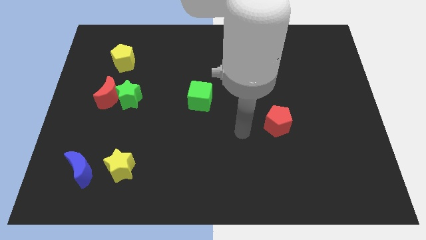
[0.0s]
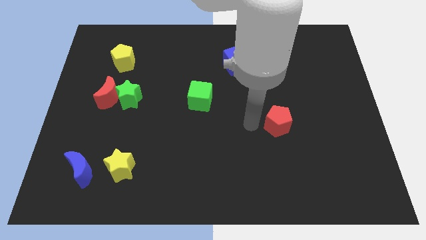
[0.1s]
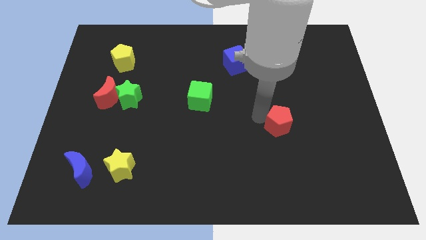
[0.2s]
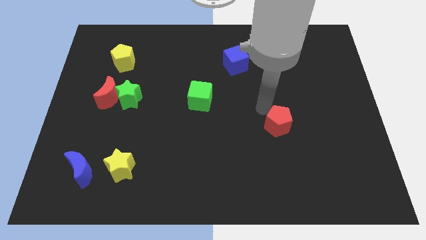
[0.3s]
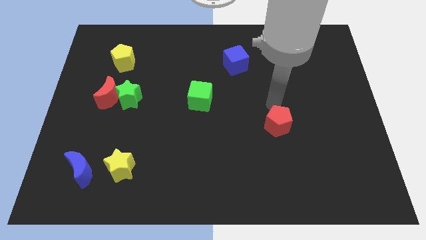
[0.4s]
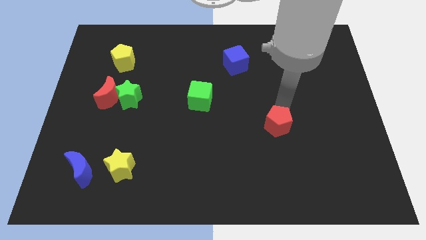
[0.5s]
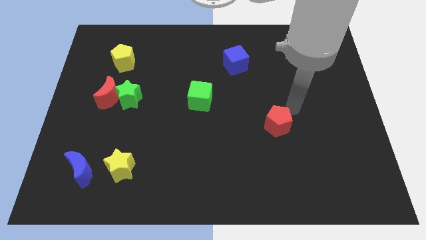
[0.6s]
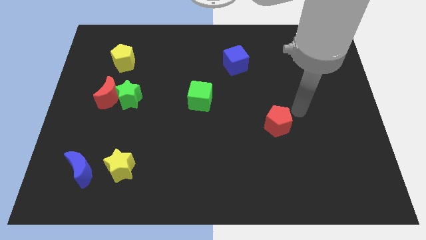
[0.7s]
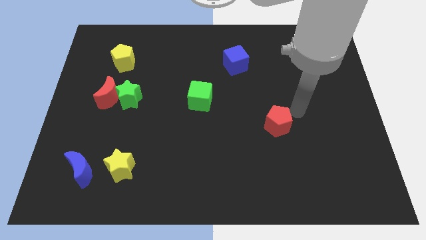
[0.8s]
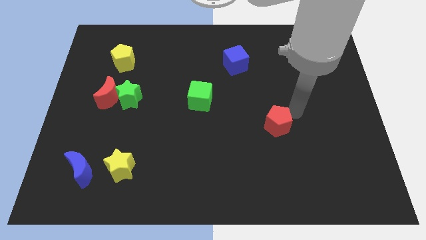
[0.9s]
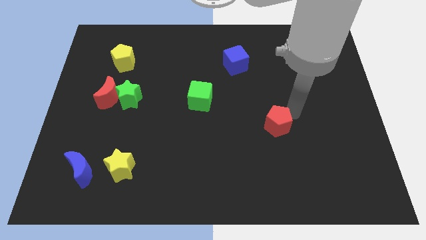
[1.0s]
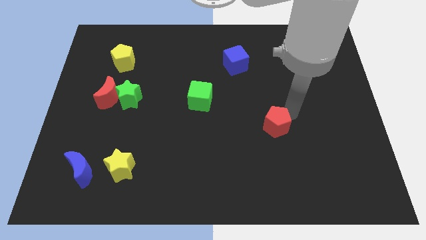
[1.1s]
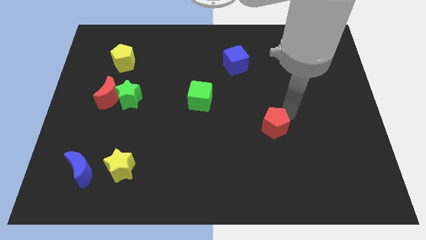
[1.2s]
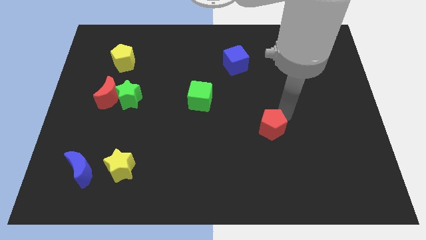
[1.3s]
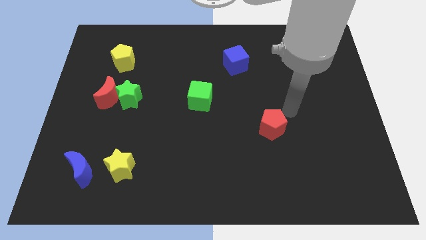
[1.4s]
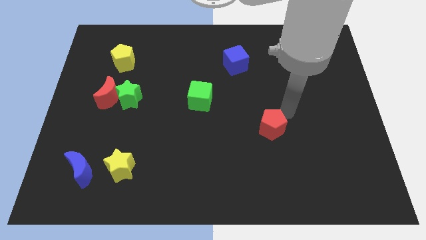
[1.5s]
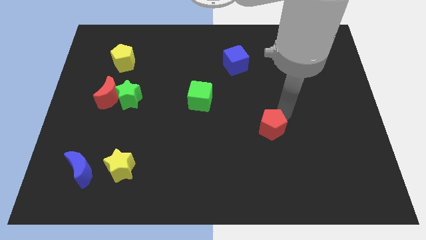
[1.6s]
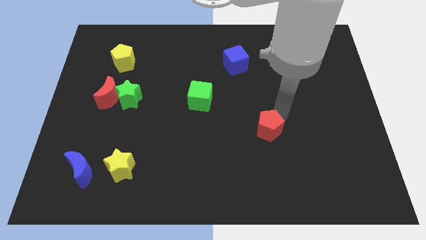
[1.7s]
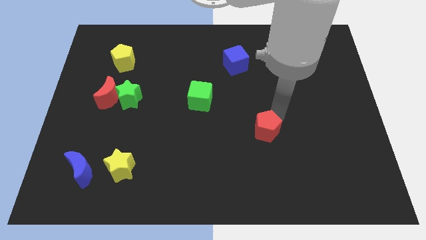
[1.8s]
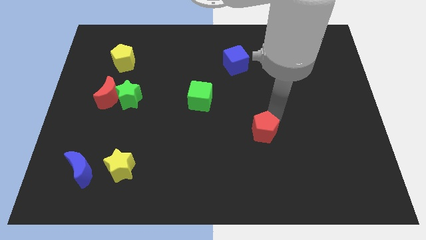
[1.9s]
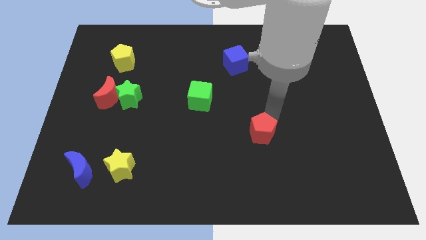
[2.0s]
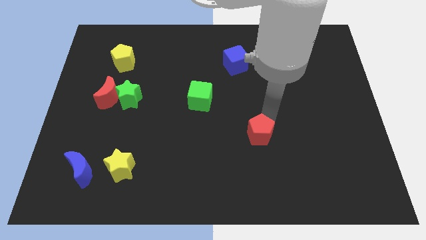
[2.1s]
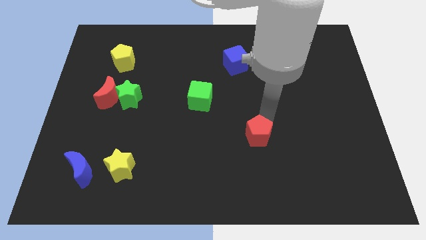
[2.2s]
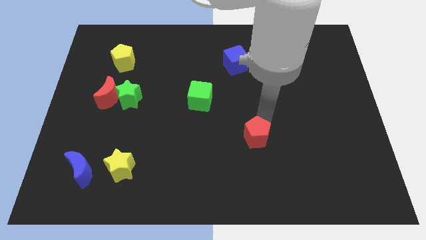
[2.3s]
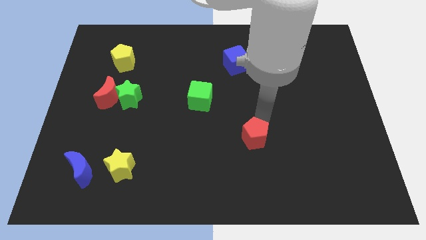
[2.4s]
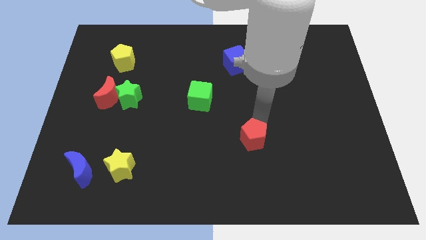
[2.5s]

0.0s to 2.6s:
push the red pentagon down and left diagonally slightly

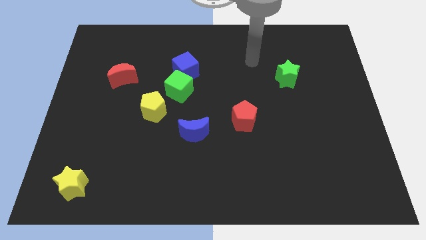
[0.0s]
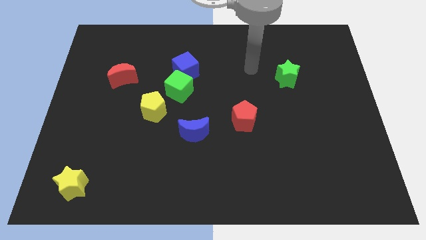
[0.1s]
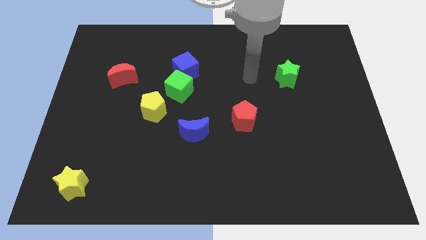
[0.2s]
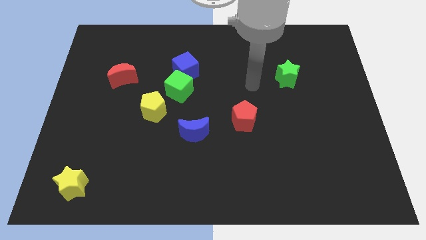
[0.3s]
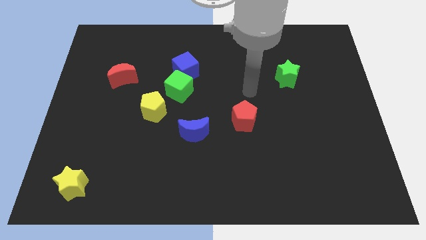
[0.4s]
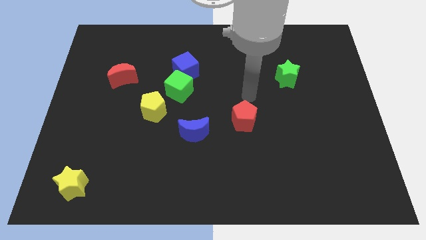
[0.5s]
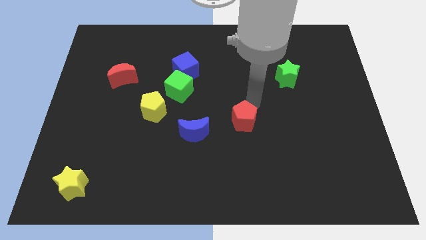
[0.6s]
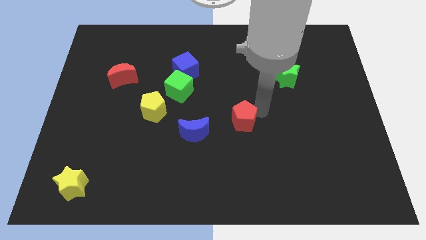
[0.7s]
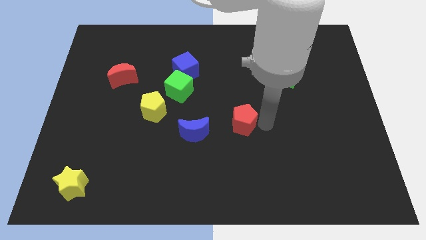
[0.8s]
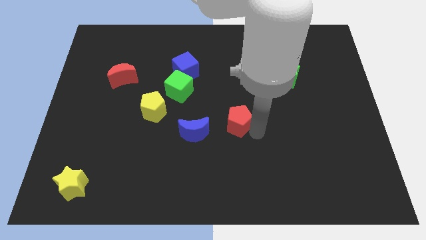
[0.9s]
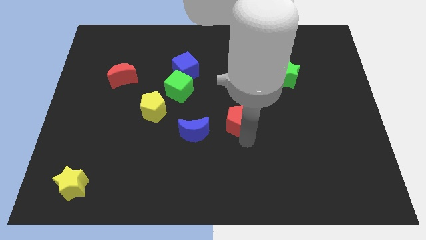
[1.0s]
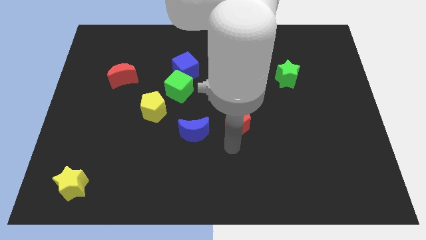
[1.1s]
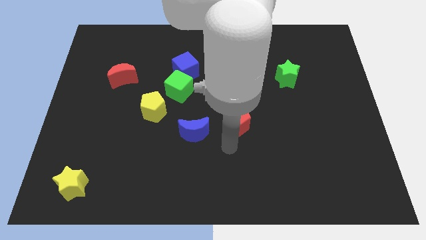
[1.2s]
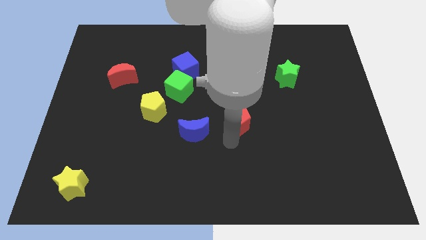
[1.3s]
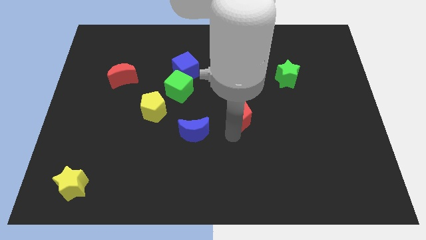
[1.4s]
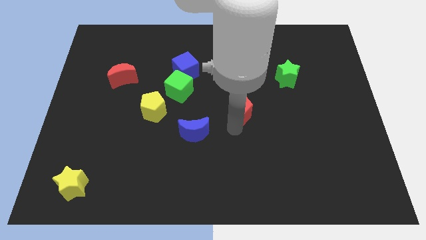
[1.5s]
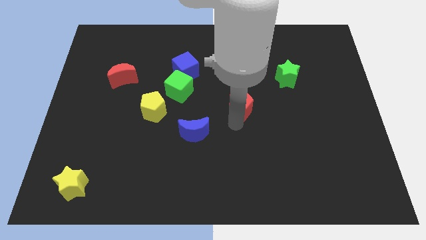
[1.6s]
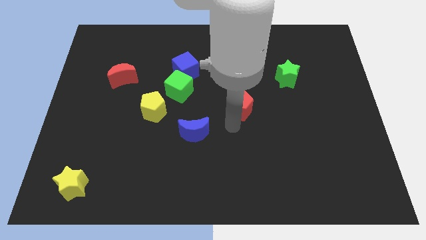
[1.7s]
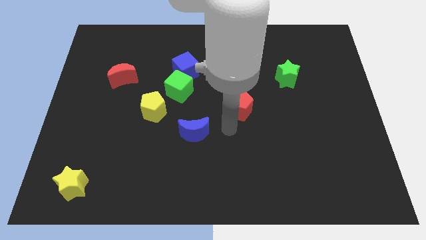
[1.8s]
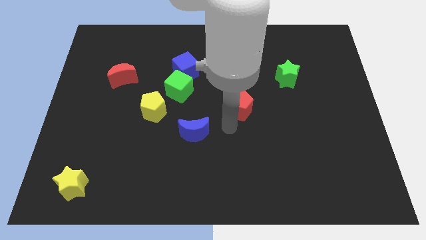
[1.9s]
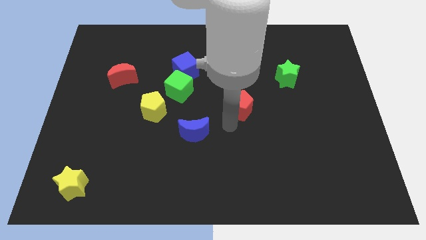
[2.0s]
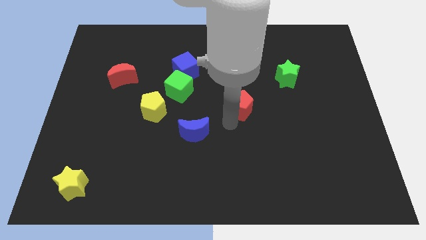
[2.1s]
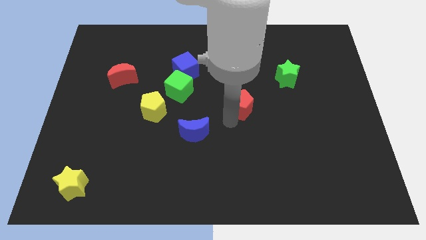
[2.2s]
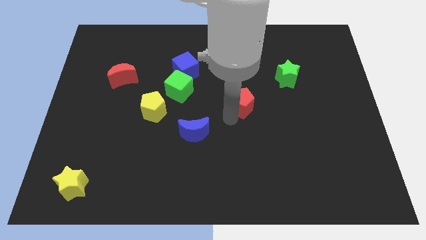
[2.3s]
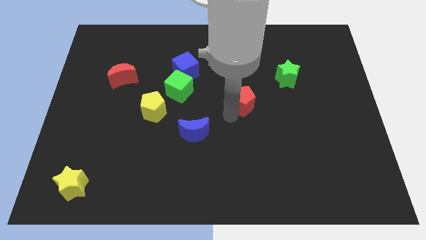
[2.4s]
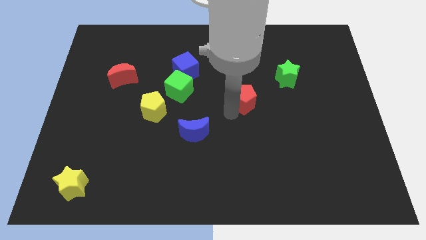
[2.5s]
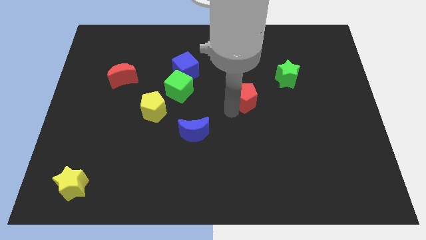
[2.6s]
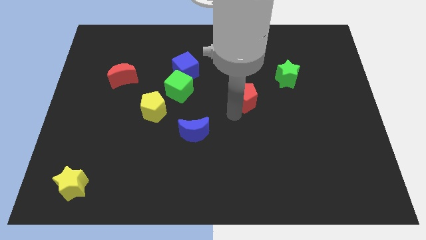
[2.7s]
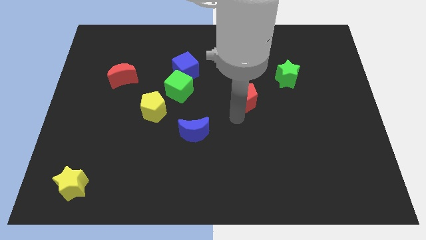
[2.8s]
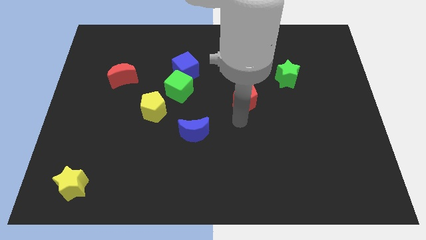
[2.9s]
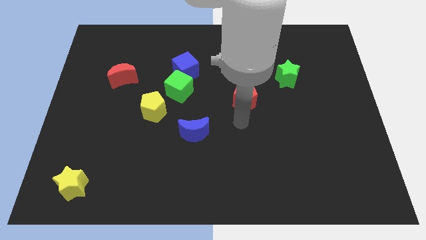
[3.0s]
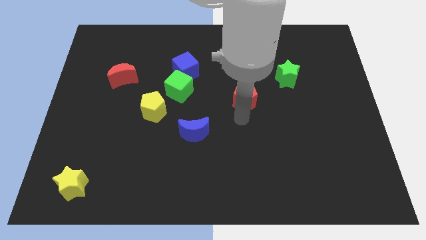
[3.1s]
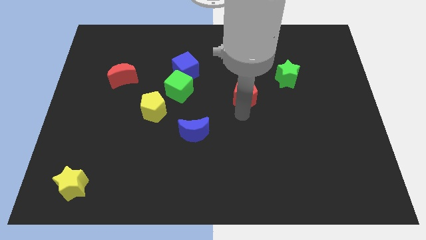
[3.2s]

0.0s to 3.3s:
slide the red pentagon up somewhat

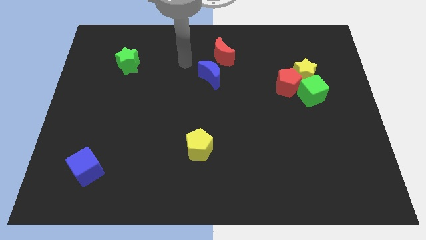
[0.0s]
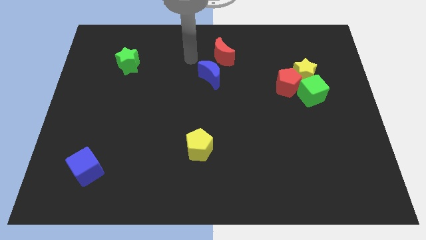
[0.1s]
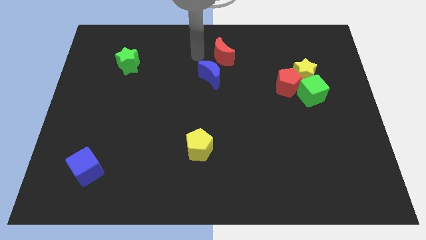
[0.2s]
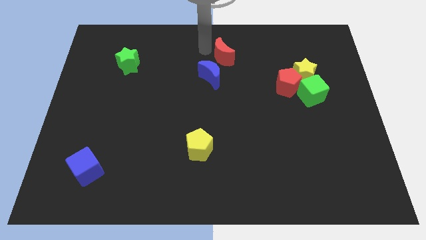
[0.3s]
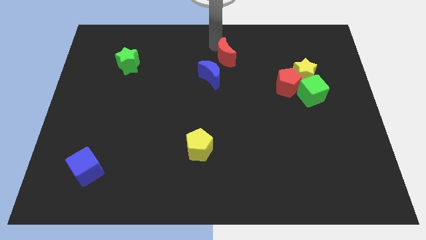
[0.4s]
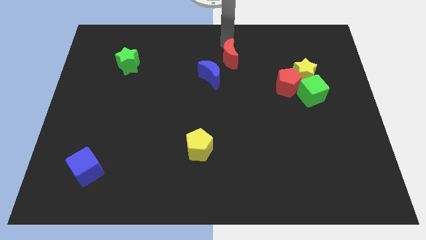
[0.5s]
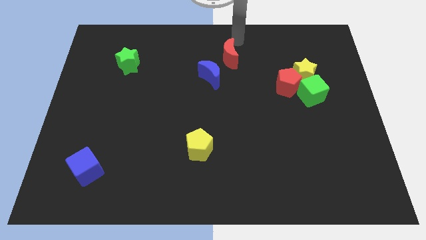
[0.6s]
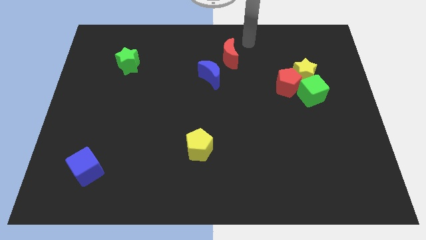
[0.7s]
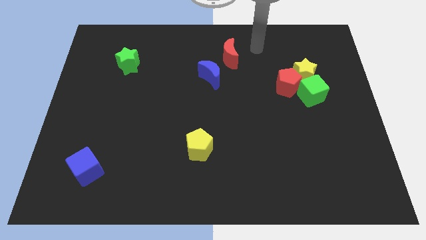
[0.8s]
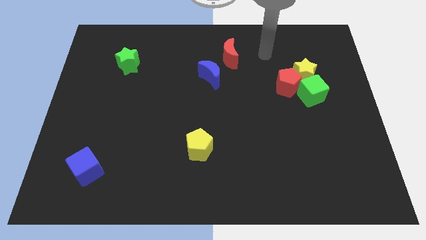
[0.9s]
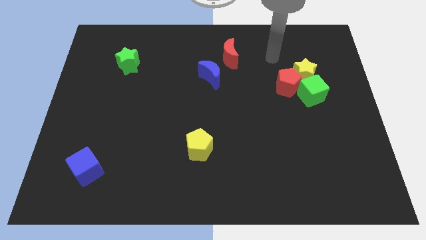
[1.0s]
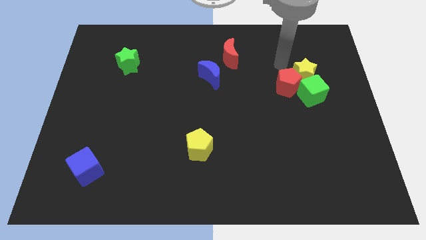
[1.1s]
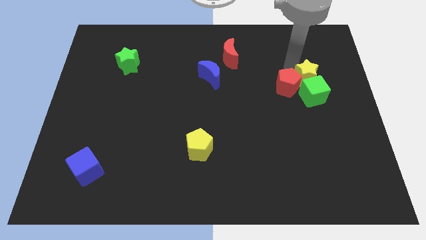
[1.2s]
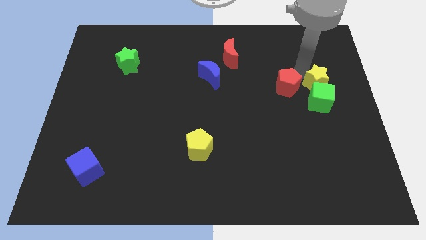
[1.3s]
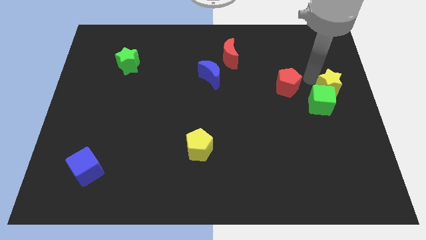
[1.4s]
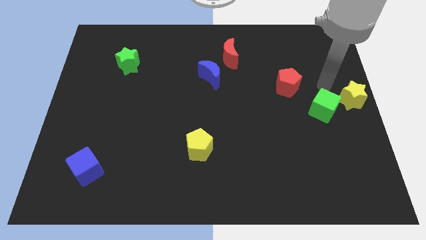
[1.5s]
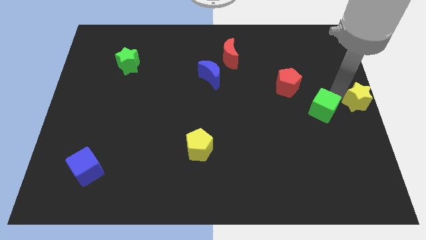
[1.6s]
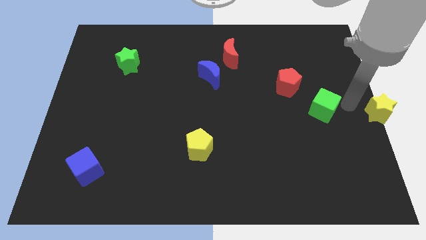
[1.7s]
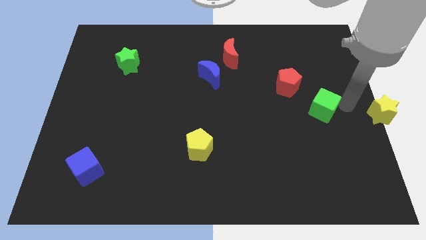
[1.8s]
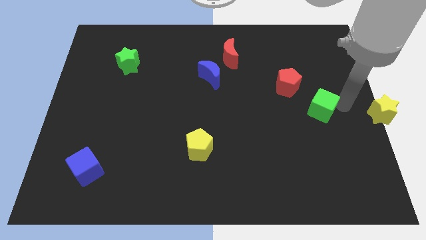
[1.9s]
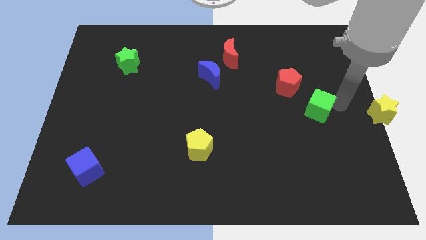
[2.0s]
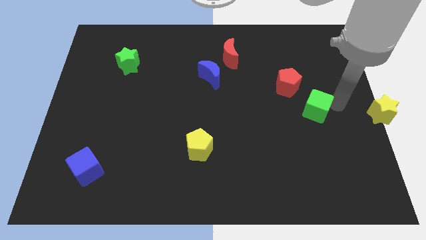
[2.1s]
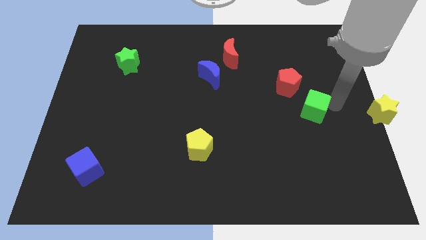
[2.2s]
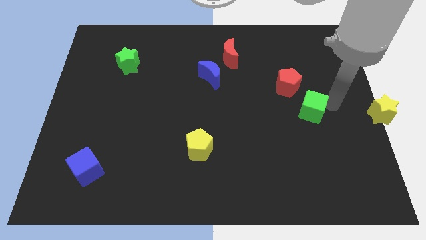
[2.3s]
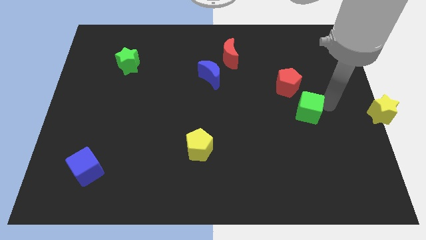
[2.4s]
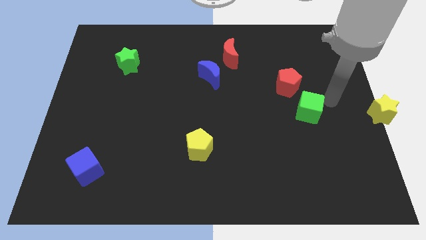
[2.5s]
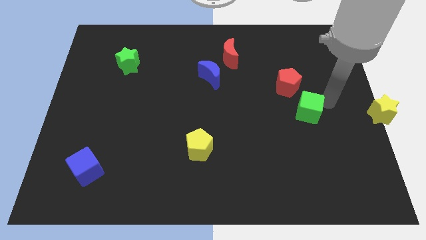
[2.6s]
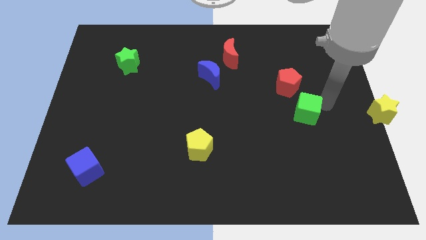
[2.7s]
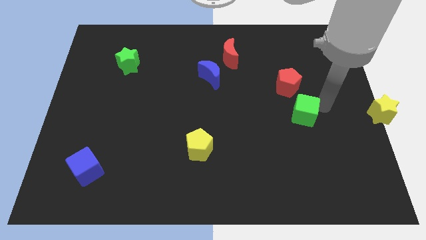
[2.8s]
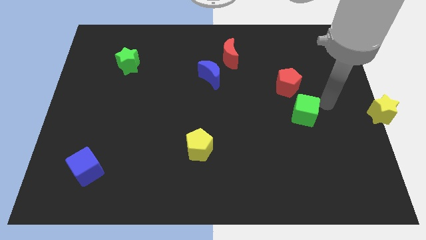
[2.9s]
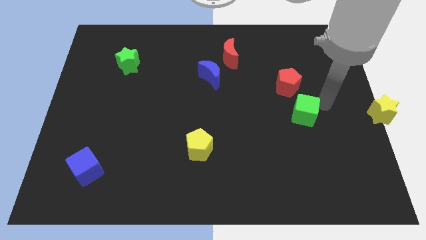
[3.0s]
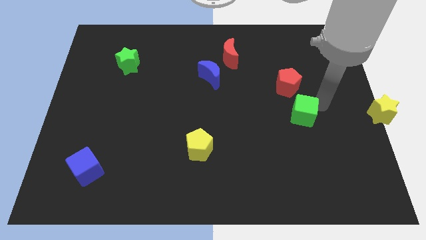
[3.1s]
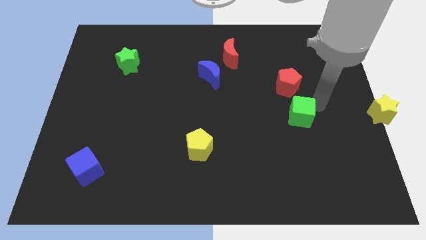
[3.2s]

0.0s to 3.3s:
move the green cube downwards and then left slightly
